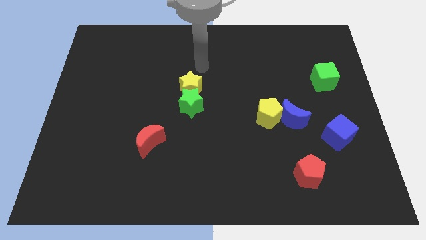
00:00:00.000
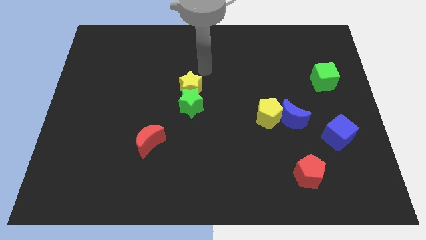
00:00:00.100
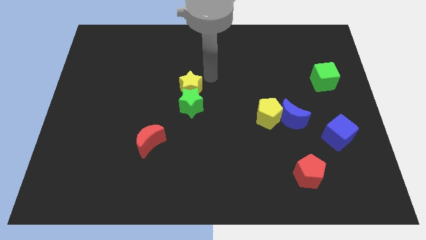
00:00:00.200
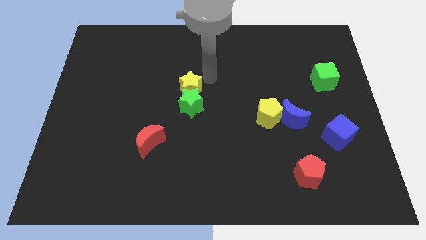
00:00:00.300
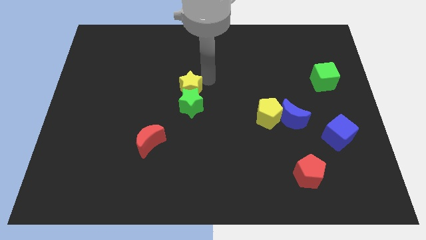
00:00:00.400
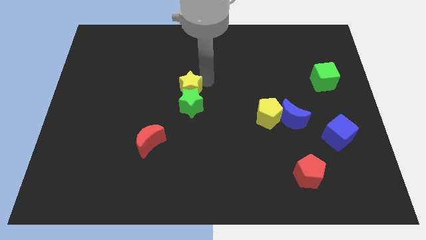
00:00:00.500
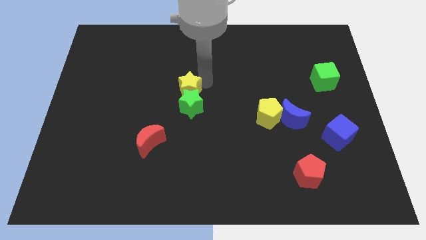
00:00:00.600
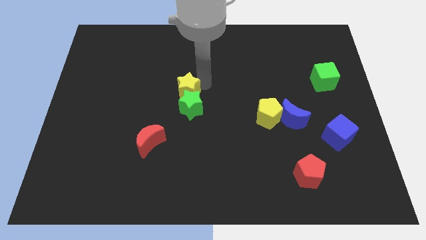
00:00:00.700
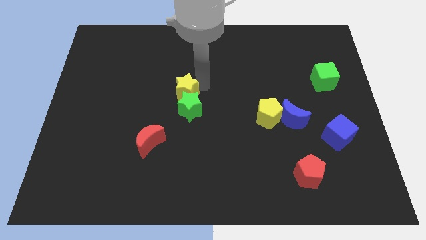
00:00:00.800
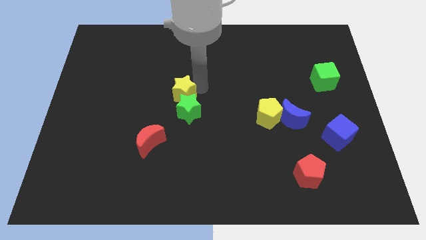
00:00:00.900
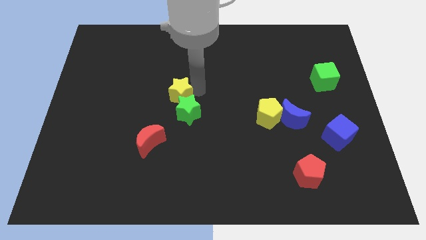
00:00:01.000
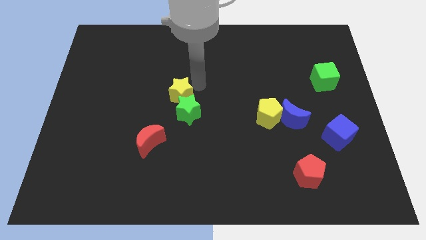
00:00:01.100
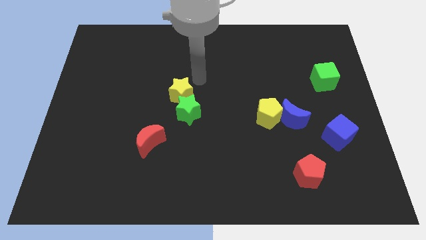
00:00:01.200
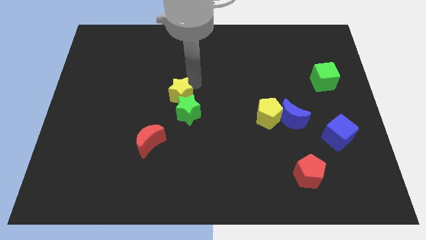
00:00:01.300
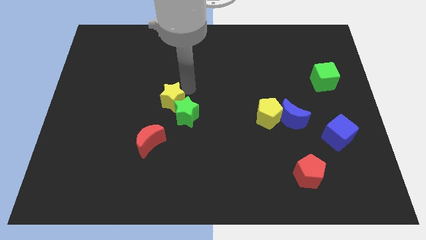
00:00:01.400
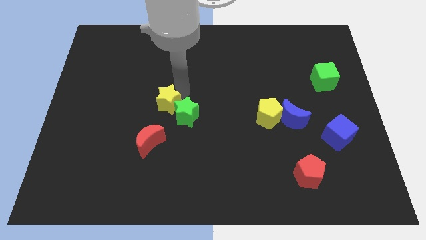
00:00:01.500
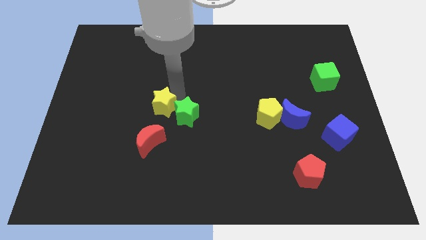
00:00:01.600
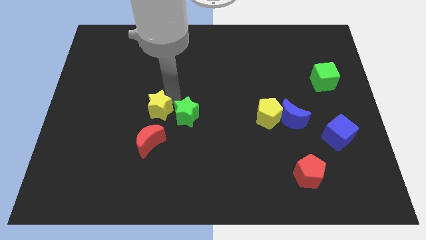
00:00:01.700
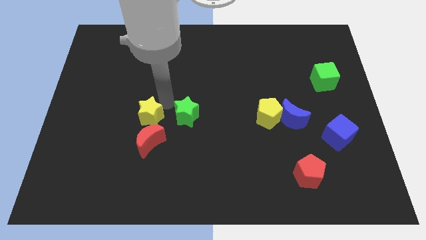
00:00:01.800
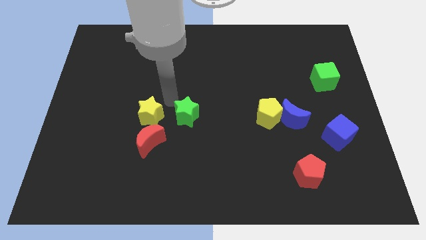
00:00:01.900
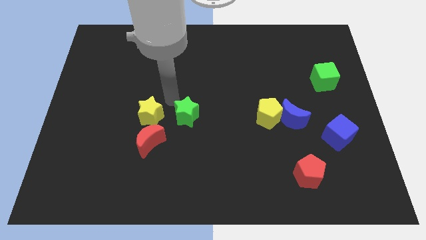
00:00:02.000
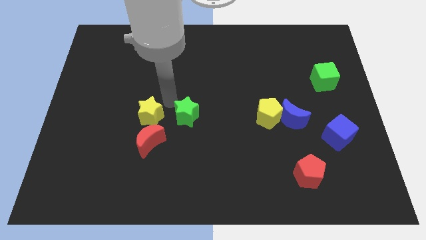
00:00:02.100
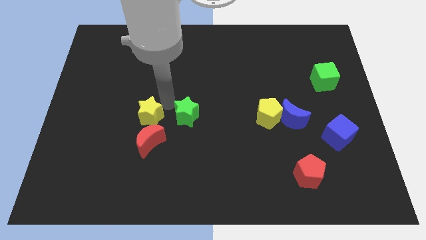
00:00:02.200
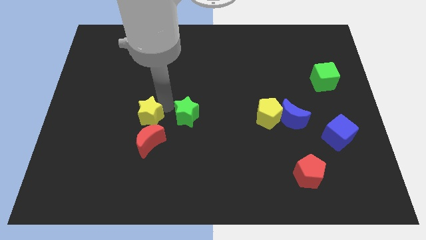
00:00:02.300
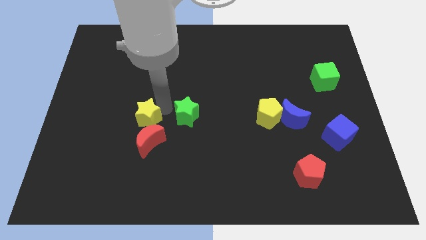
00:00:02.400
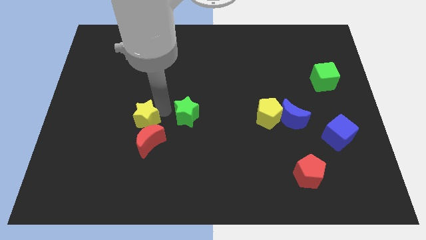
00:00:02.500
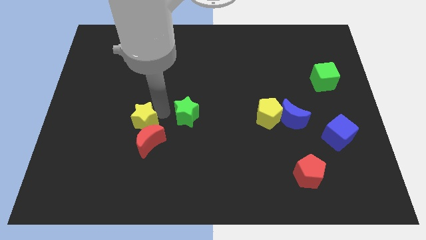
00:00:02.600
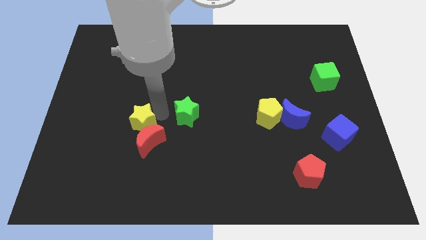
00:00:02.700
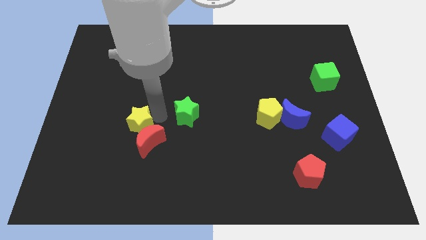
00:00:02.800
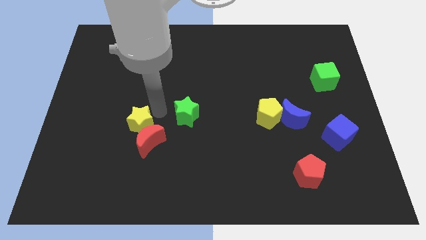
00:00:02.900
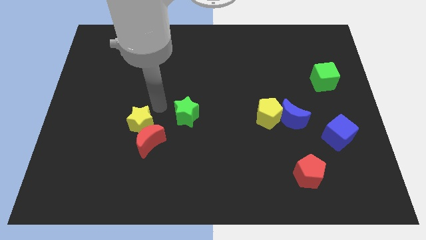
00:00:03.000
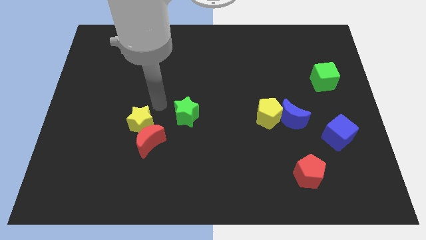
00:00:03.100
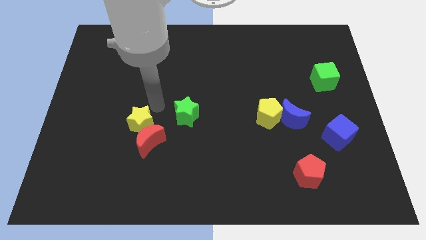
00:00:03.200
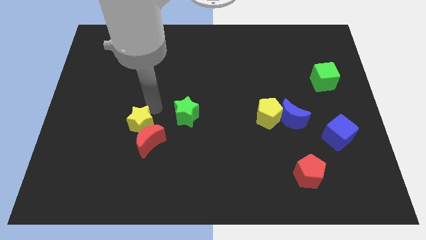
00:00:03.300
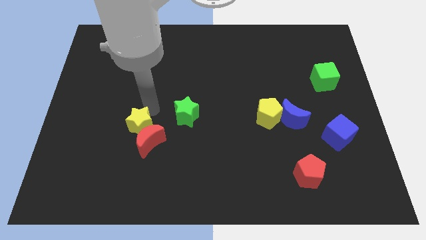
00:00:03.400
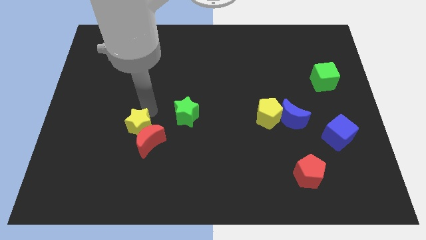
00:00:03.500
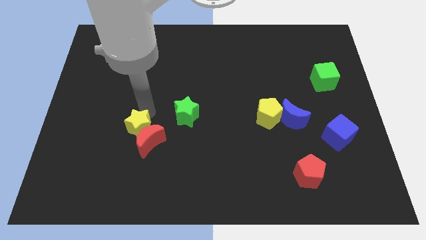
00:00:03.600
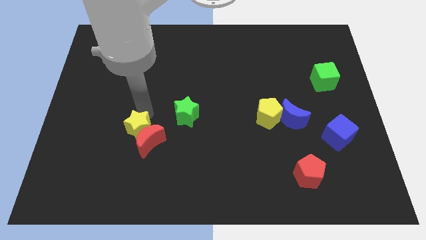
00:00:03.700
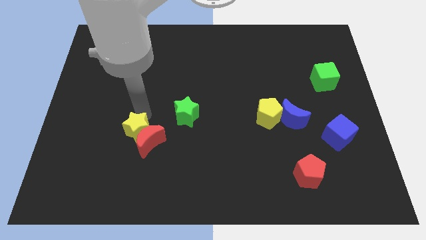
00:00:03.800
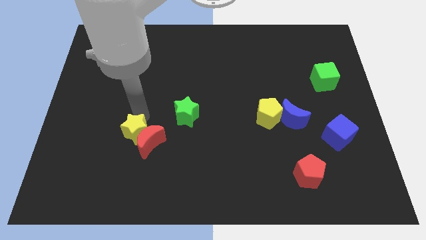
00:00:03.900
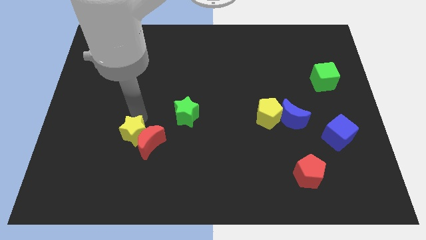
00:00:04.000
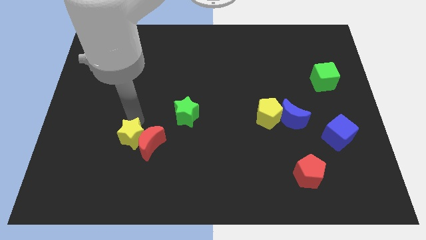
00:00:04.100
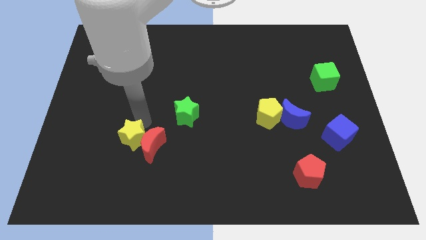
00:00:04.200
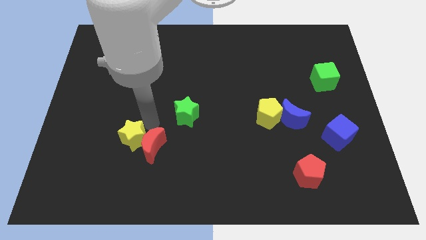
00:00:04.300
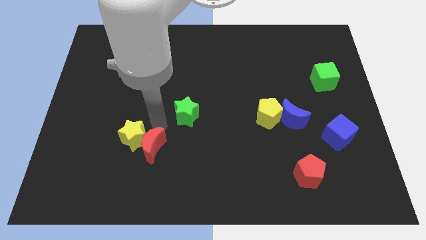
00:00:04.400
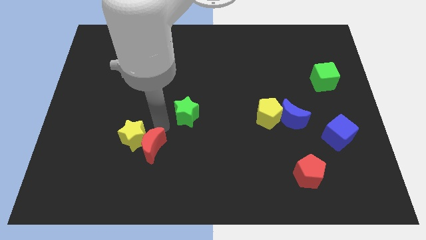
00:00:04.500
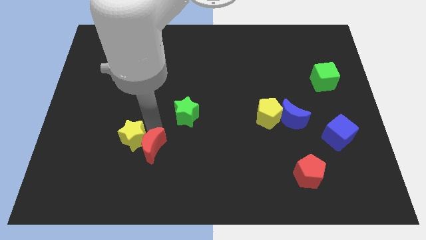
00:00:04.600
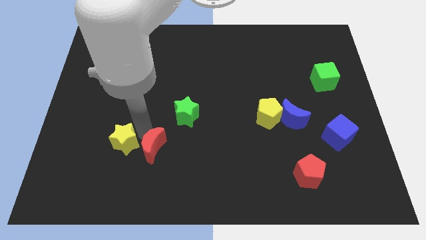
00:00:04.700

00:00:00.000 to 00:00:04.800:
push the yellow star down and to the left diagonally

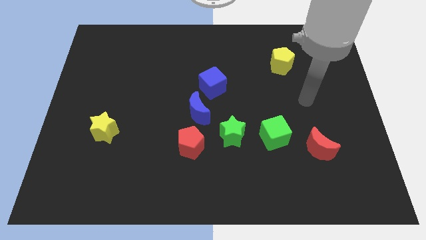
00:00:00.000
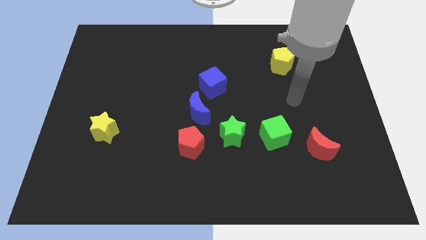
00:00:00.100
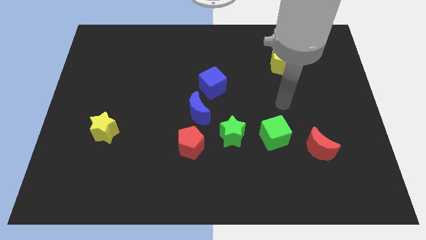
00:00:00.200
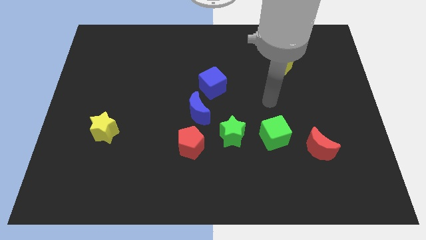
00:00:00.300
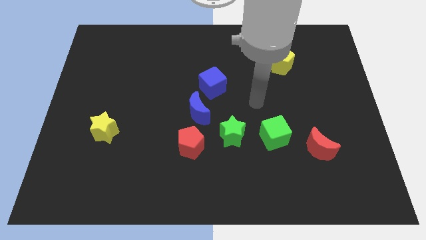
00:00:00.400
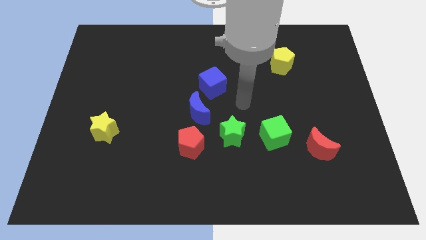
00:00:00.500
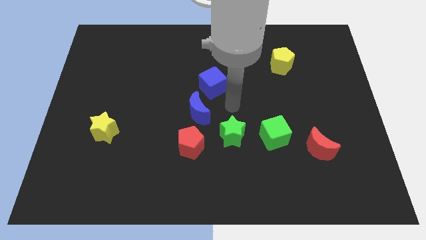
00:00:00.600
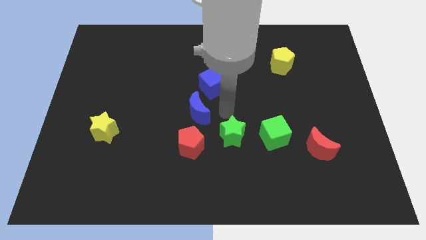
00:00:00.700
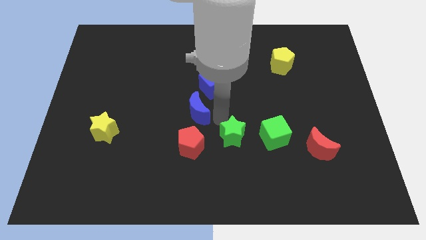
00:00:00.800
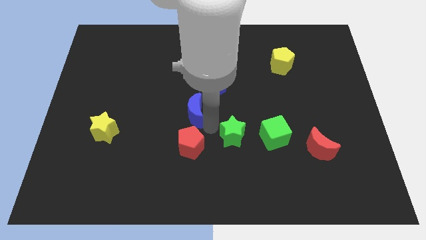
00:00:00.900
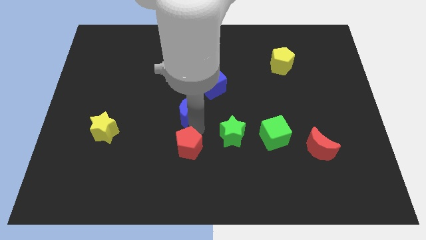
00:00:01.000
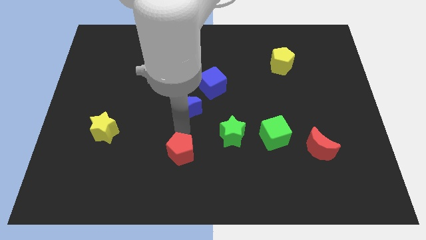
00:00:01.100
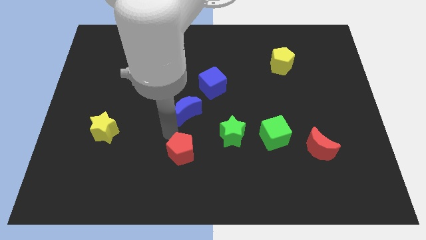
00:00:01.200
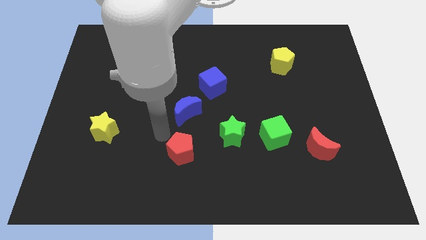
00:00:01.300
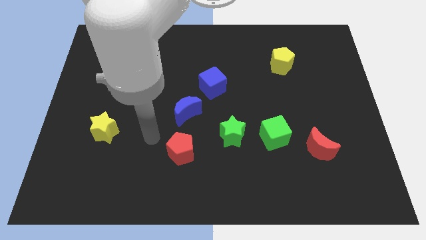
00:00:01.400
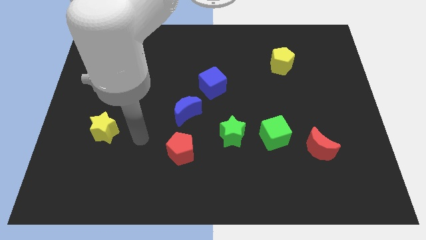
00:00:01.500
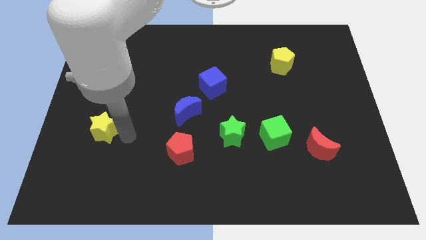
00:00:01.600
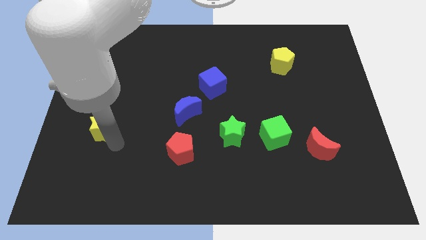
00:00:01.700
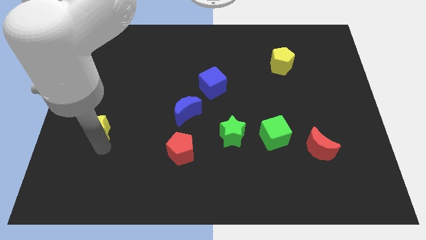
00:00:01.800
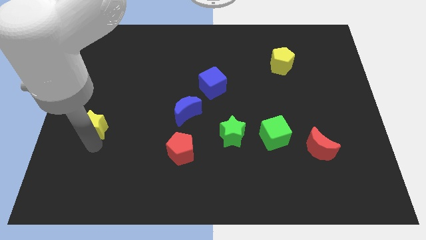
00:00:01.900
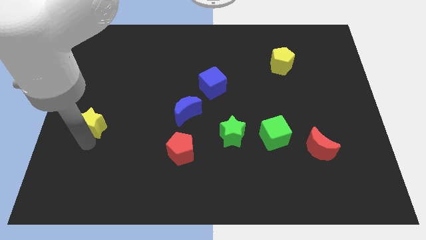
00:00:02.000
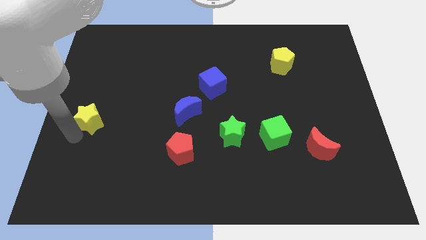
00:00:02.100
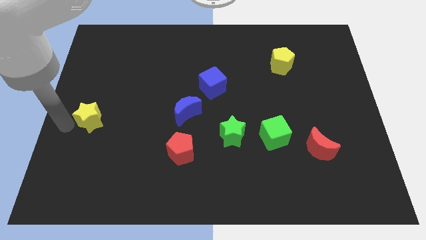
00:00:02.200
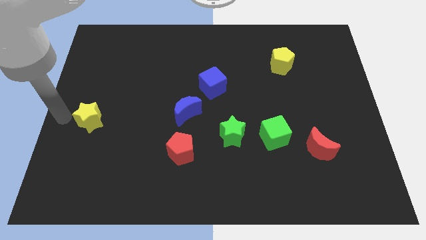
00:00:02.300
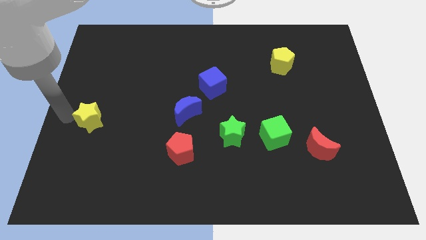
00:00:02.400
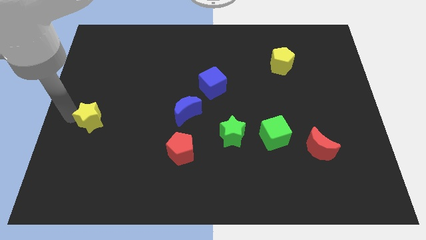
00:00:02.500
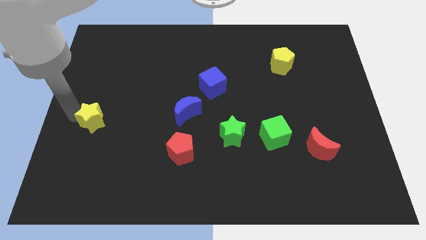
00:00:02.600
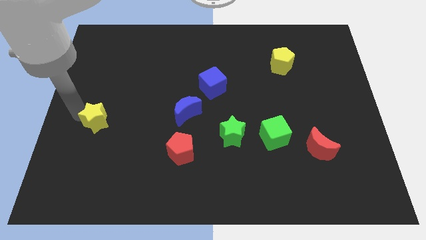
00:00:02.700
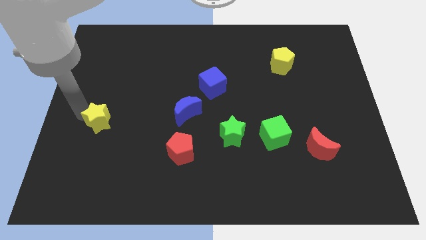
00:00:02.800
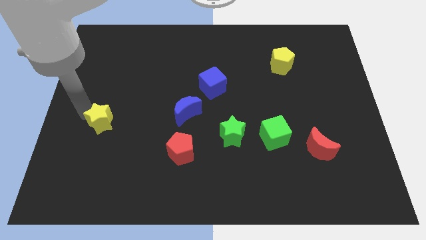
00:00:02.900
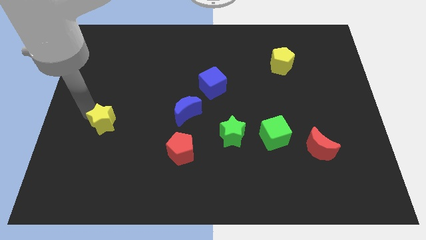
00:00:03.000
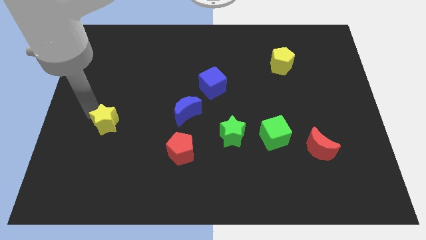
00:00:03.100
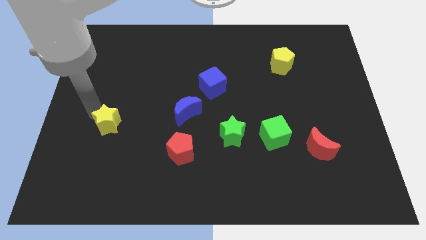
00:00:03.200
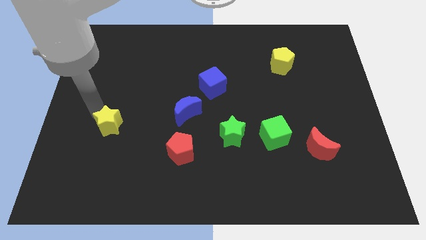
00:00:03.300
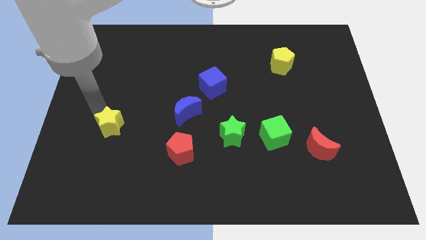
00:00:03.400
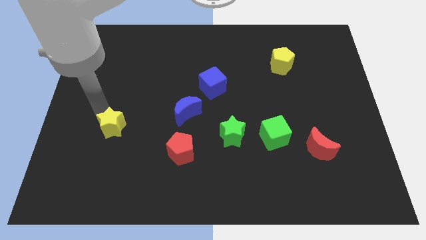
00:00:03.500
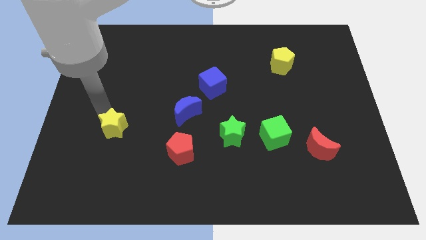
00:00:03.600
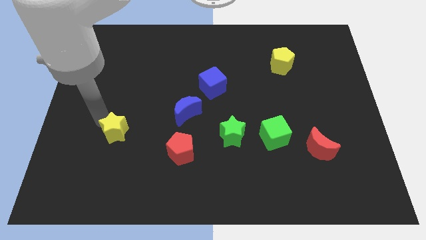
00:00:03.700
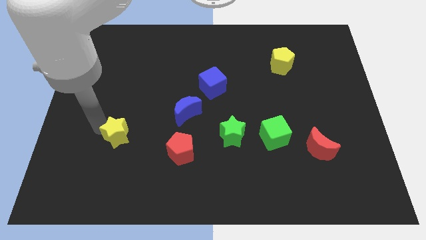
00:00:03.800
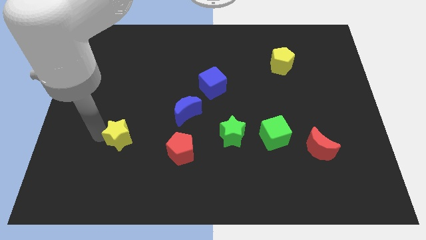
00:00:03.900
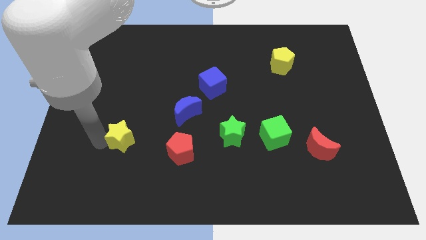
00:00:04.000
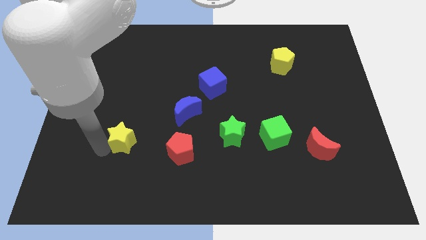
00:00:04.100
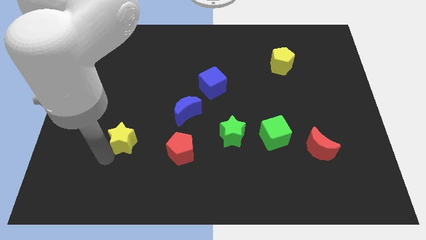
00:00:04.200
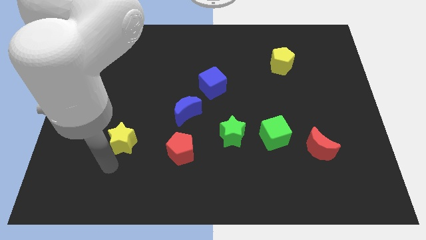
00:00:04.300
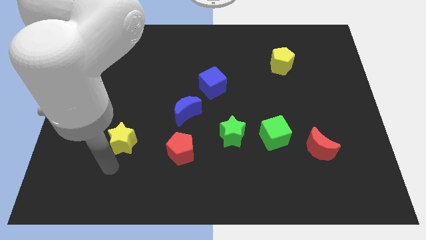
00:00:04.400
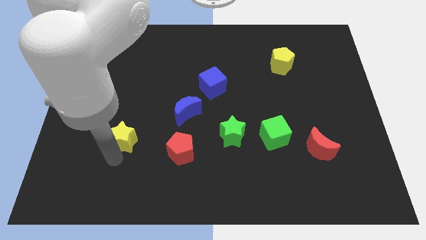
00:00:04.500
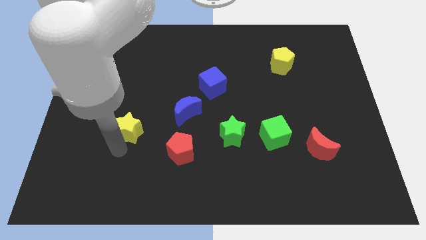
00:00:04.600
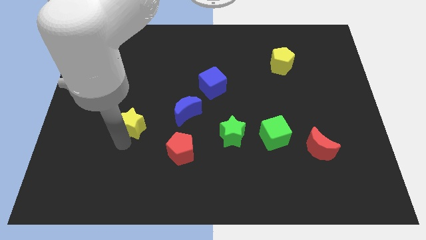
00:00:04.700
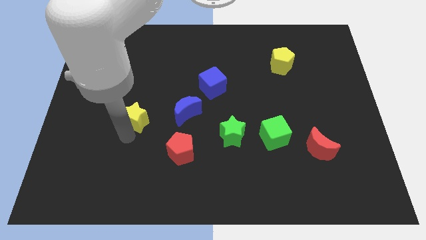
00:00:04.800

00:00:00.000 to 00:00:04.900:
move the yellow star upwards and right diagonally a little bit
